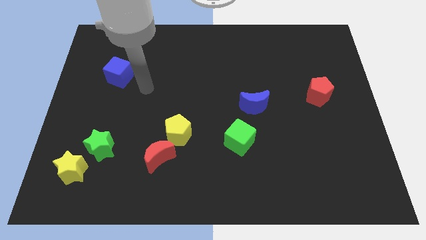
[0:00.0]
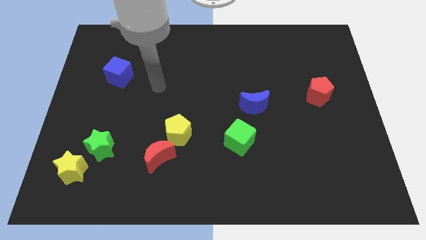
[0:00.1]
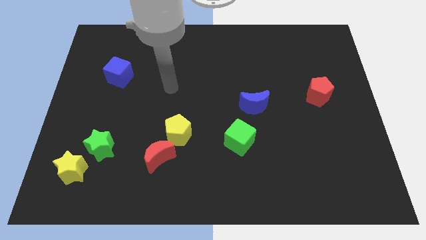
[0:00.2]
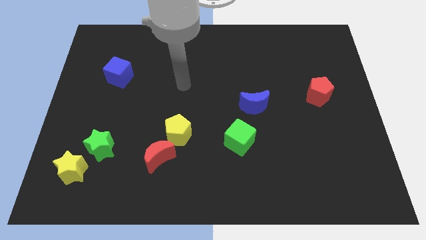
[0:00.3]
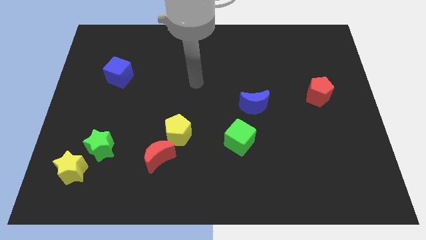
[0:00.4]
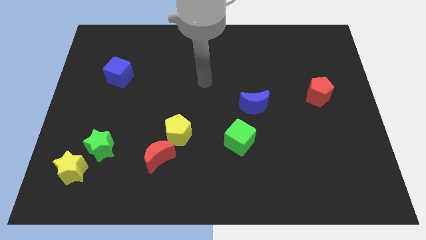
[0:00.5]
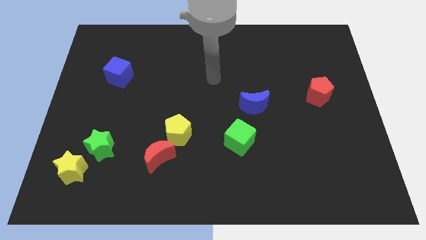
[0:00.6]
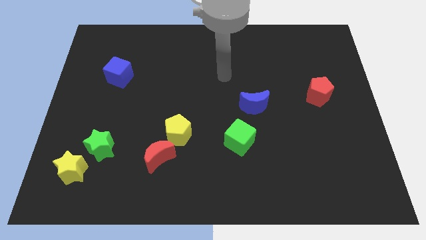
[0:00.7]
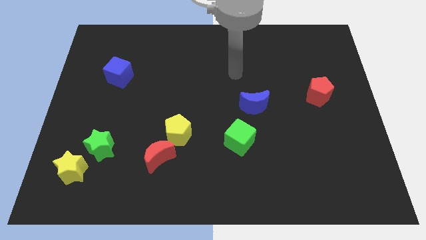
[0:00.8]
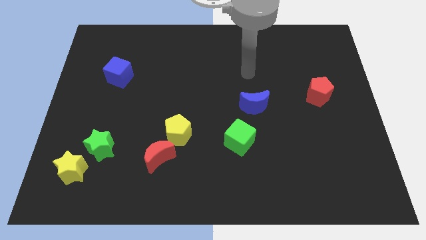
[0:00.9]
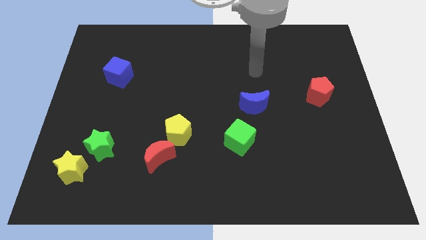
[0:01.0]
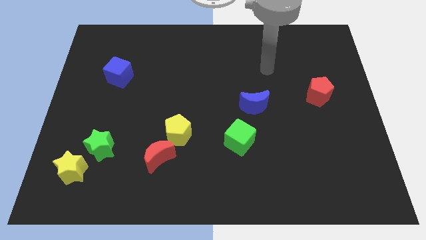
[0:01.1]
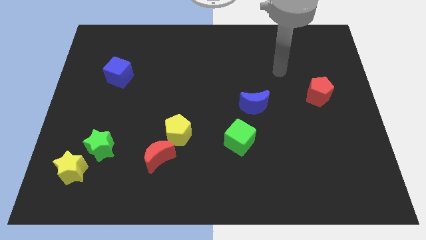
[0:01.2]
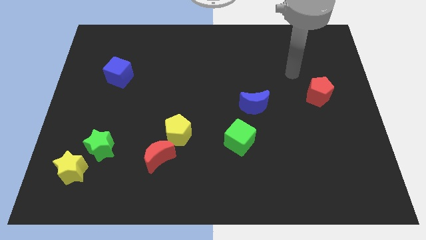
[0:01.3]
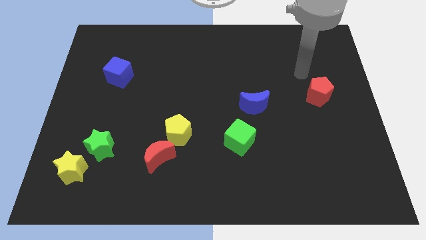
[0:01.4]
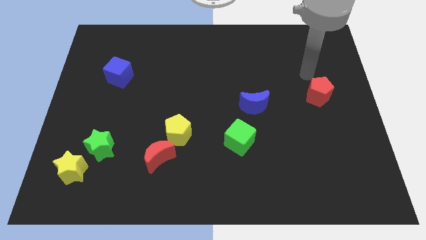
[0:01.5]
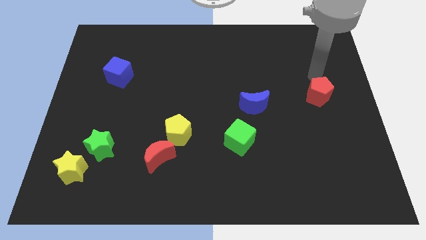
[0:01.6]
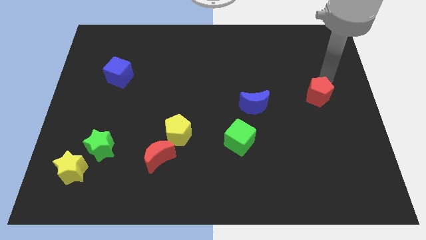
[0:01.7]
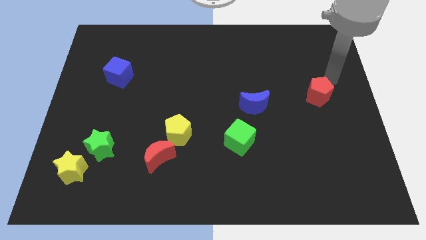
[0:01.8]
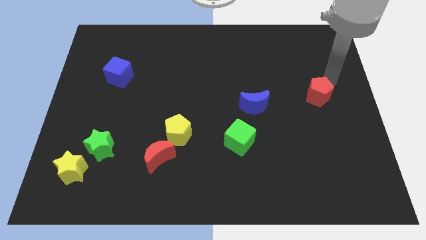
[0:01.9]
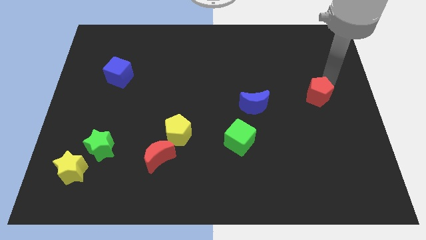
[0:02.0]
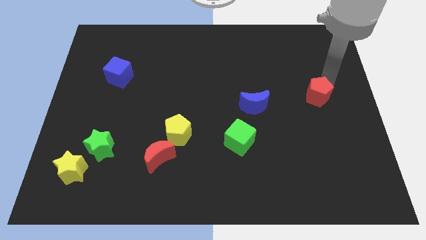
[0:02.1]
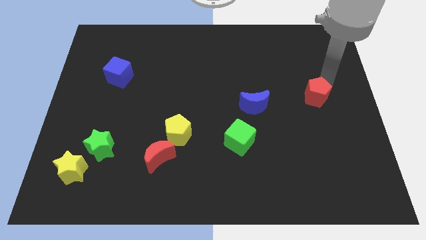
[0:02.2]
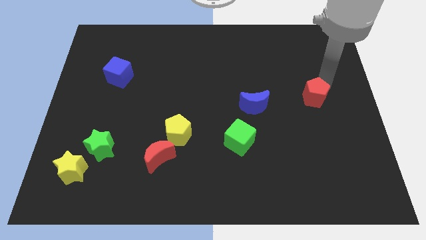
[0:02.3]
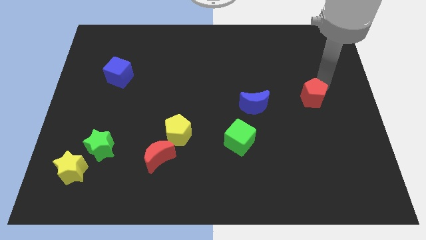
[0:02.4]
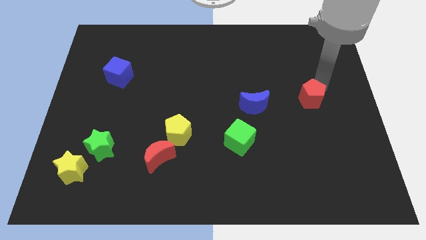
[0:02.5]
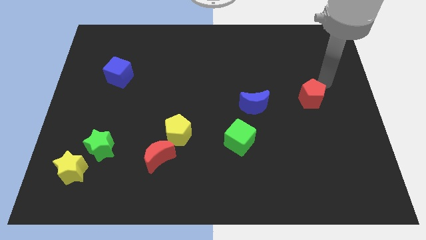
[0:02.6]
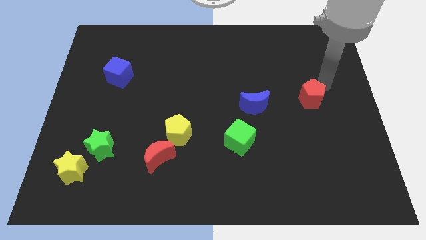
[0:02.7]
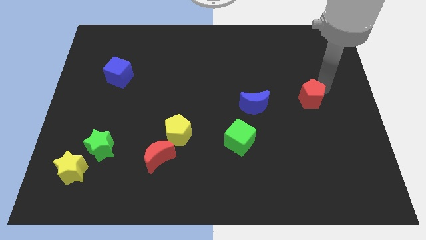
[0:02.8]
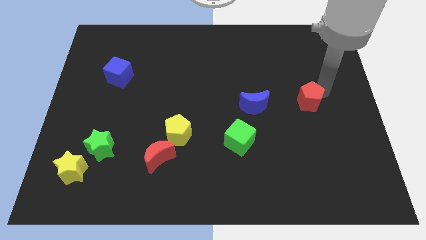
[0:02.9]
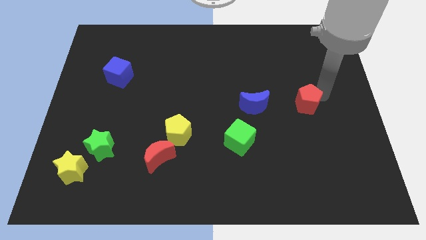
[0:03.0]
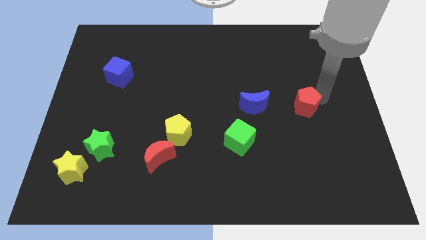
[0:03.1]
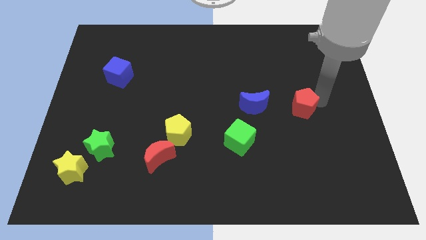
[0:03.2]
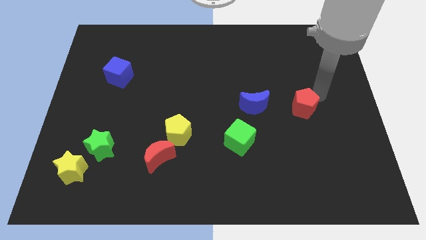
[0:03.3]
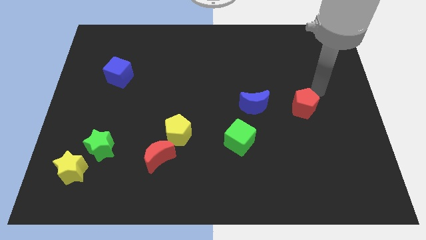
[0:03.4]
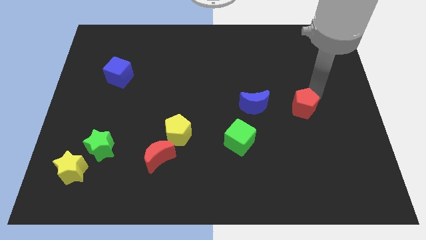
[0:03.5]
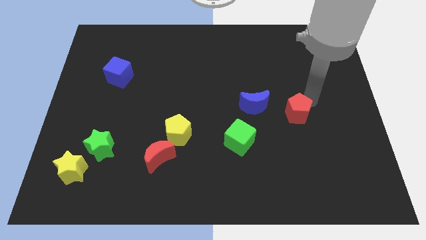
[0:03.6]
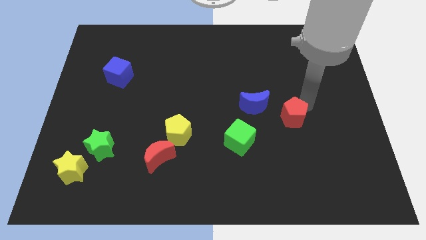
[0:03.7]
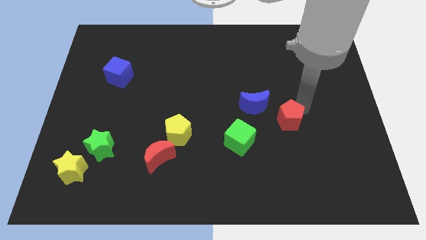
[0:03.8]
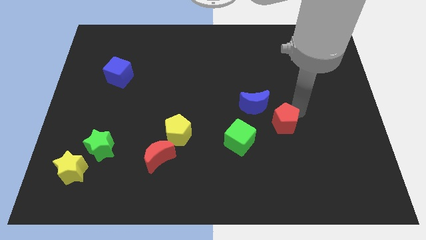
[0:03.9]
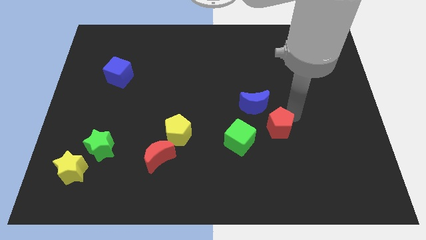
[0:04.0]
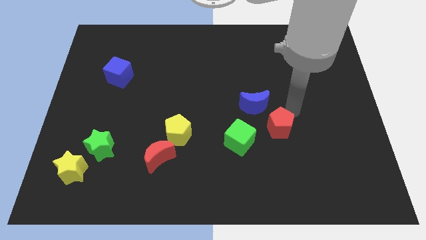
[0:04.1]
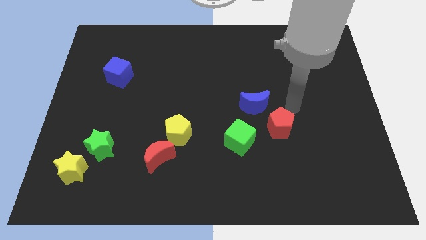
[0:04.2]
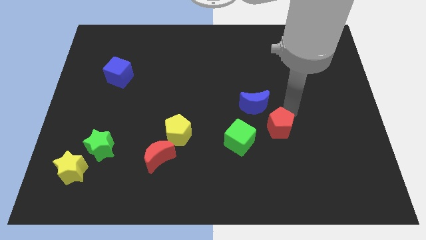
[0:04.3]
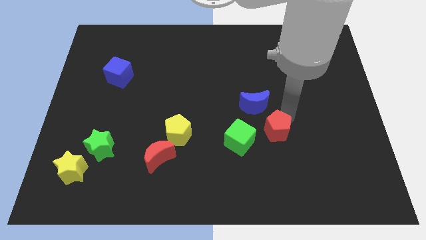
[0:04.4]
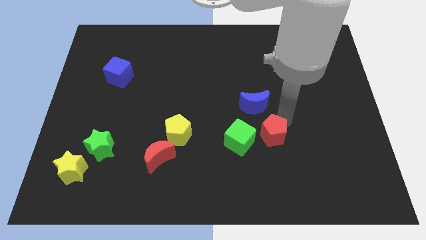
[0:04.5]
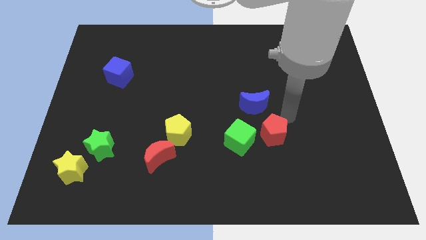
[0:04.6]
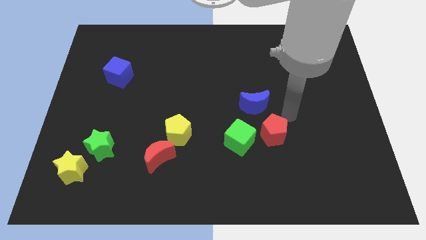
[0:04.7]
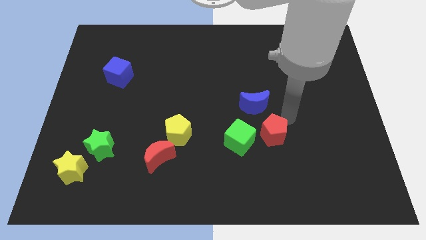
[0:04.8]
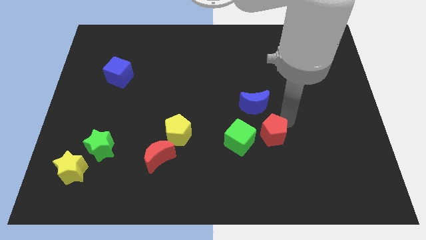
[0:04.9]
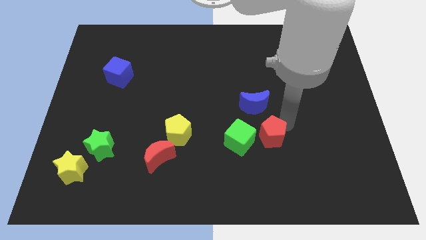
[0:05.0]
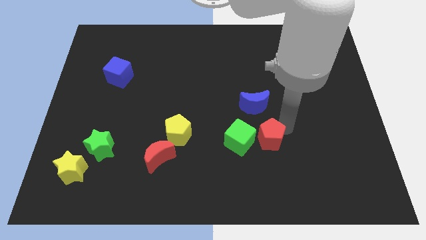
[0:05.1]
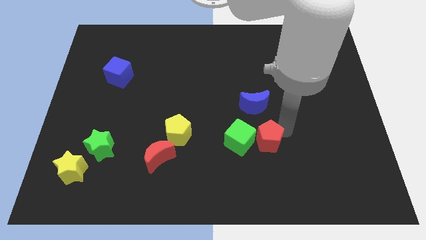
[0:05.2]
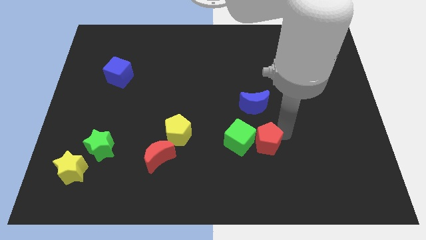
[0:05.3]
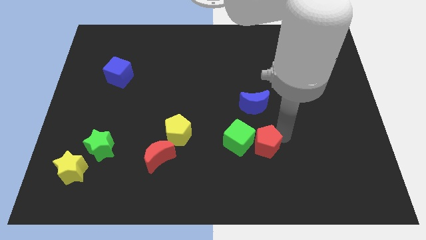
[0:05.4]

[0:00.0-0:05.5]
slide the red pentagon diagonally down and left

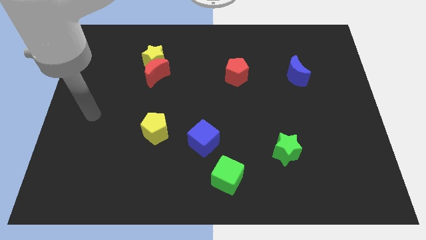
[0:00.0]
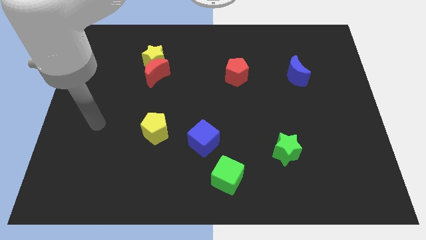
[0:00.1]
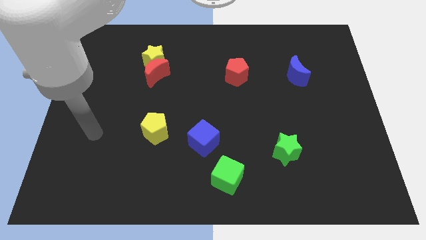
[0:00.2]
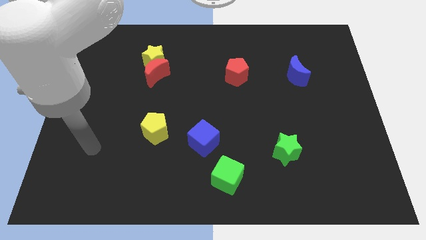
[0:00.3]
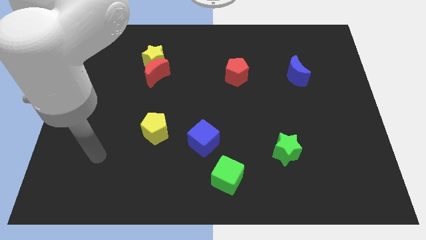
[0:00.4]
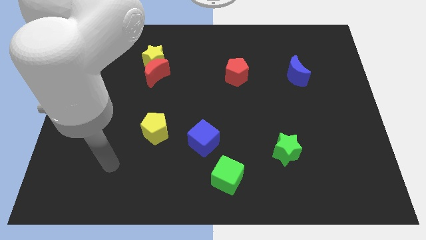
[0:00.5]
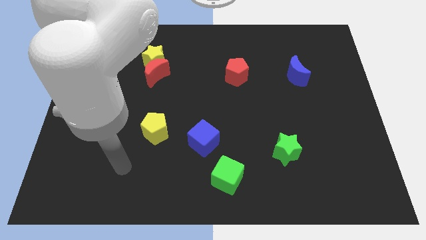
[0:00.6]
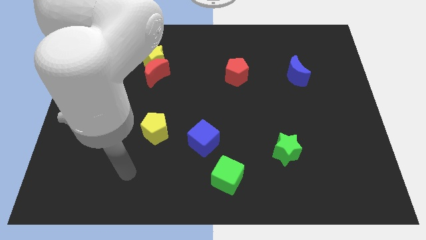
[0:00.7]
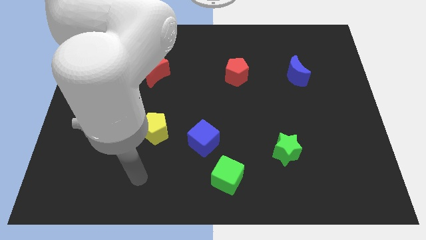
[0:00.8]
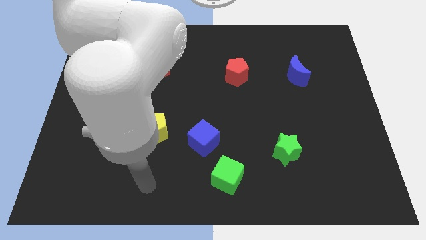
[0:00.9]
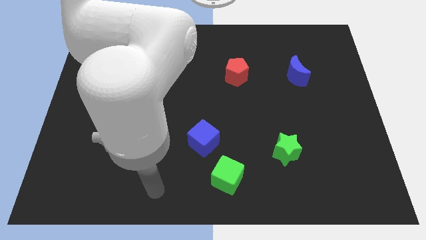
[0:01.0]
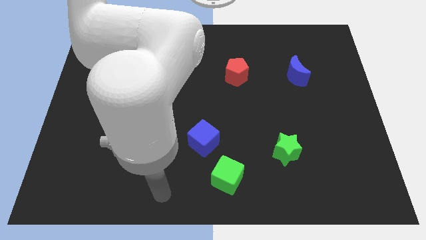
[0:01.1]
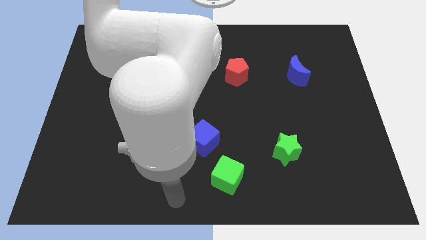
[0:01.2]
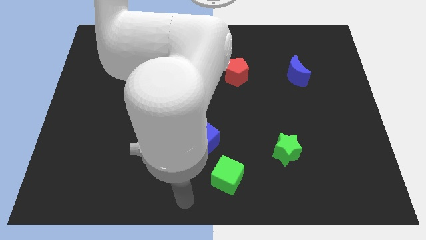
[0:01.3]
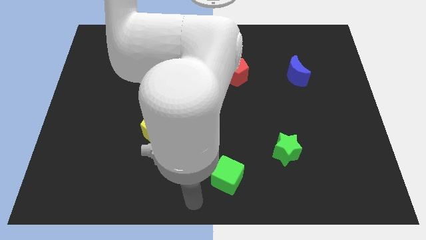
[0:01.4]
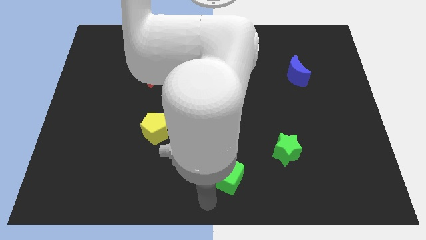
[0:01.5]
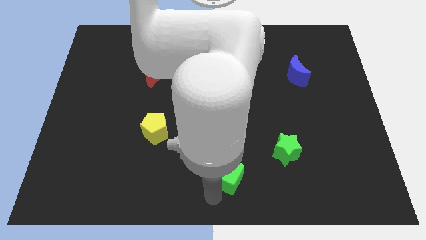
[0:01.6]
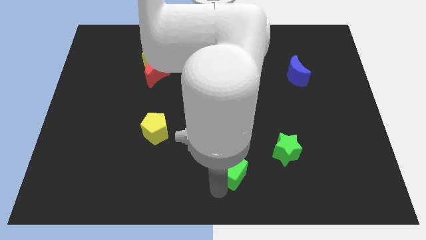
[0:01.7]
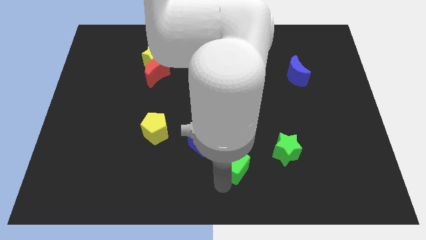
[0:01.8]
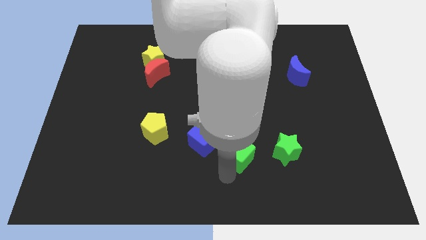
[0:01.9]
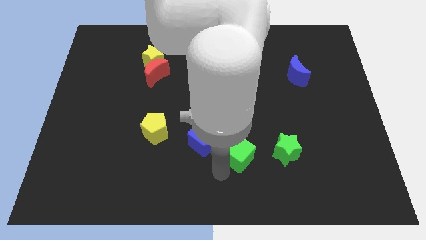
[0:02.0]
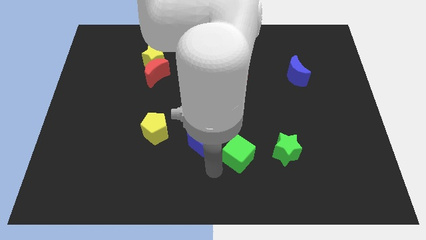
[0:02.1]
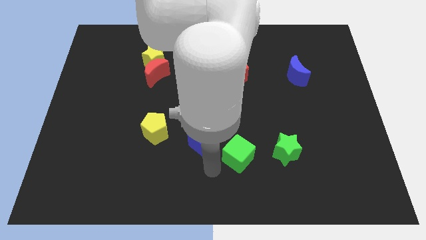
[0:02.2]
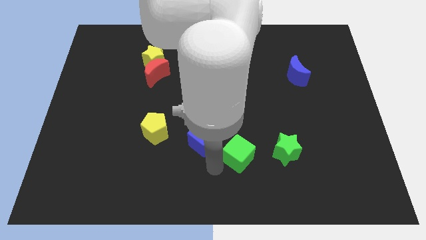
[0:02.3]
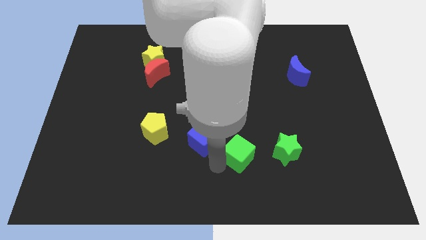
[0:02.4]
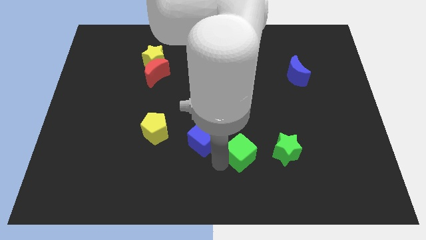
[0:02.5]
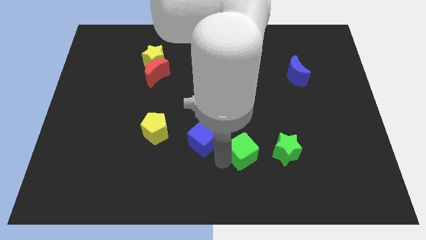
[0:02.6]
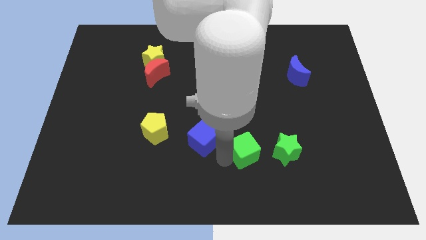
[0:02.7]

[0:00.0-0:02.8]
push the green cube slightly upwards and then right
